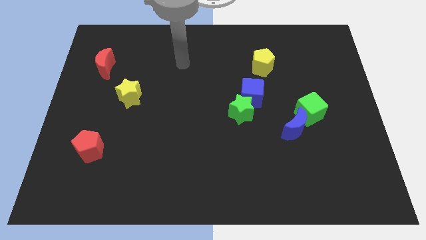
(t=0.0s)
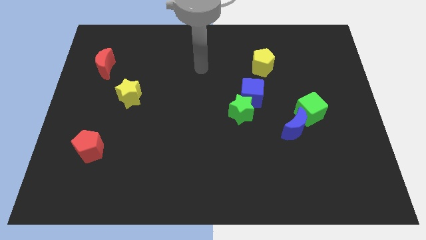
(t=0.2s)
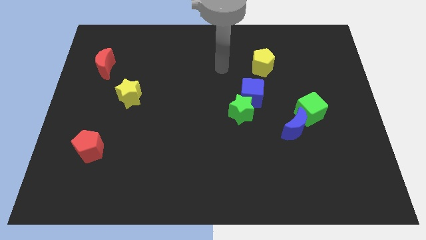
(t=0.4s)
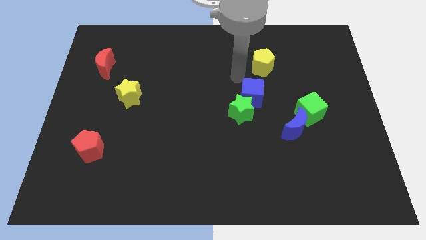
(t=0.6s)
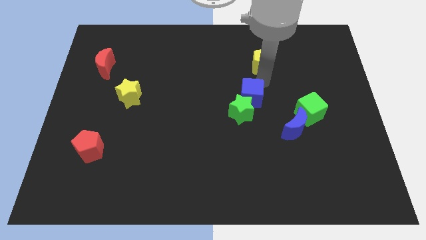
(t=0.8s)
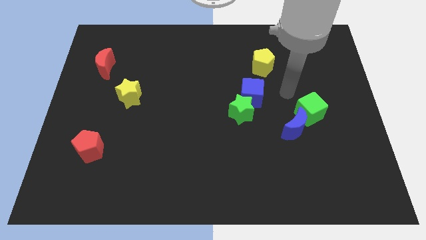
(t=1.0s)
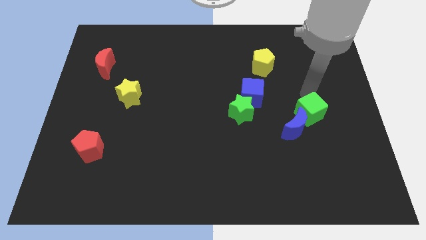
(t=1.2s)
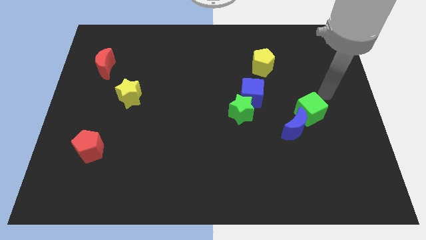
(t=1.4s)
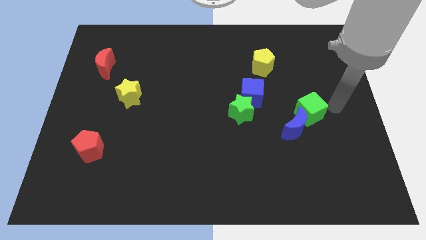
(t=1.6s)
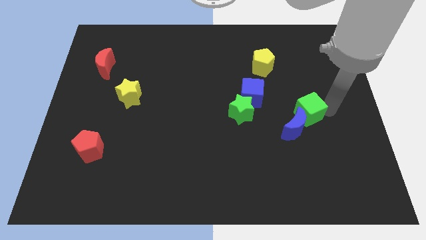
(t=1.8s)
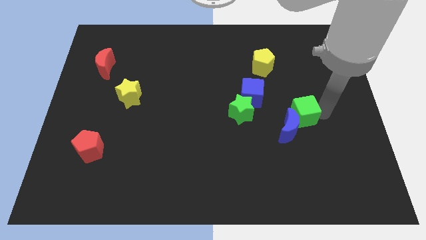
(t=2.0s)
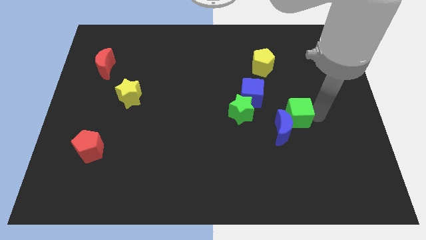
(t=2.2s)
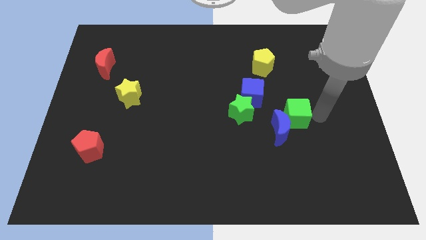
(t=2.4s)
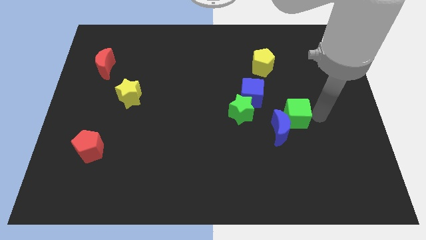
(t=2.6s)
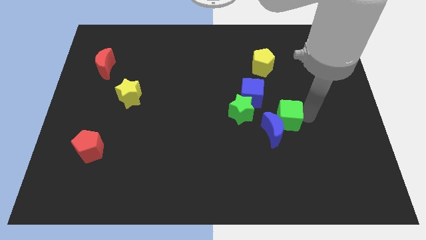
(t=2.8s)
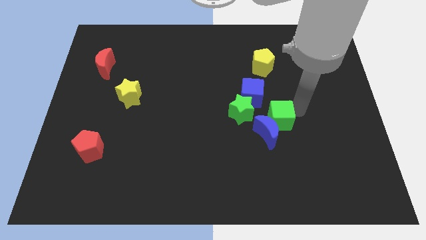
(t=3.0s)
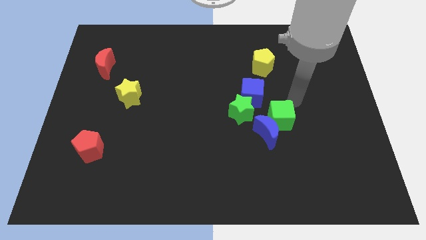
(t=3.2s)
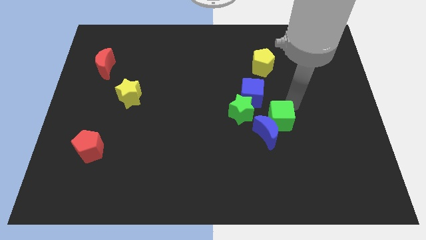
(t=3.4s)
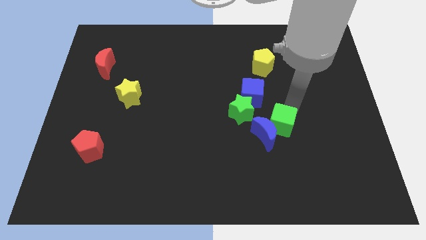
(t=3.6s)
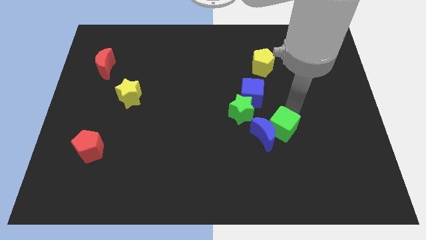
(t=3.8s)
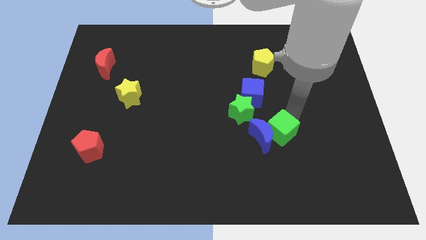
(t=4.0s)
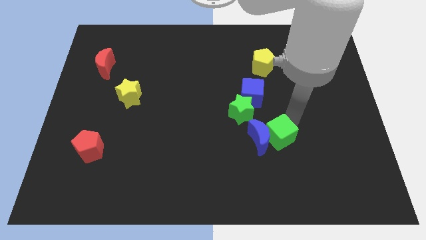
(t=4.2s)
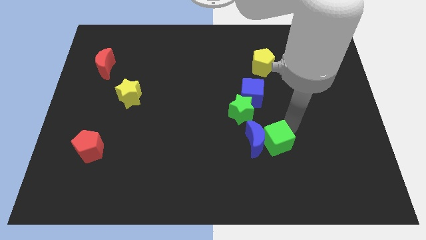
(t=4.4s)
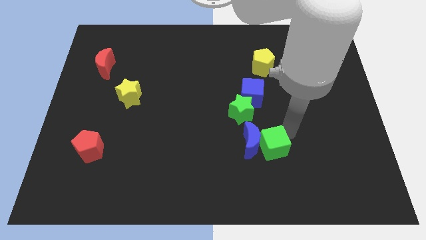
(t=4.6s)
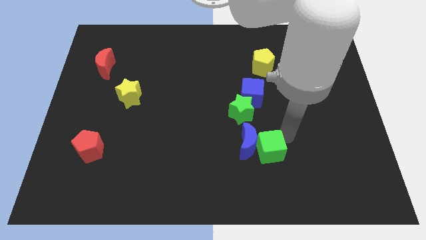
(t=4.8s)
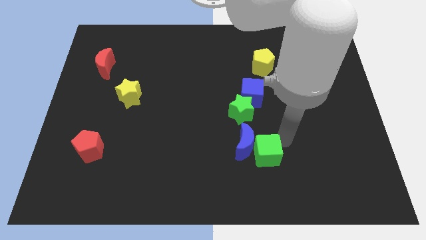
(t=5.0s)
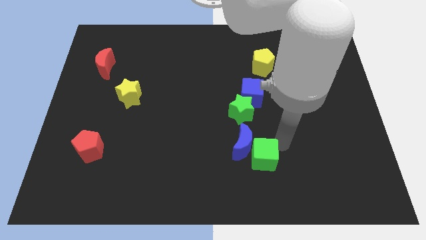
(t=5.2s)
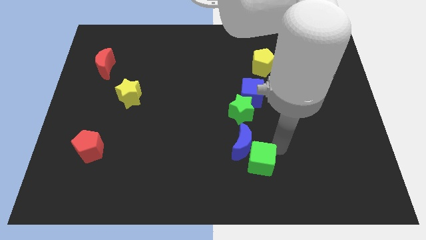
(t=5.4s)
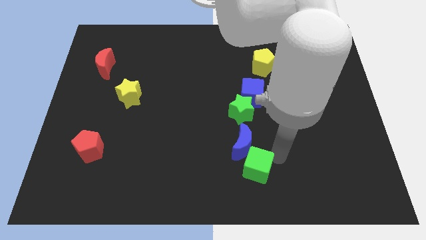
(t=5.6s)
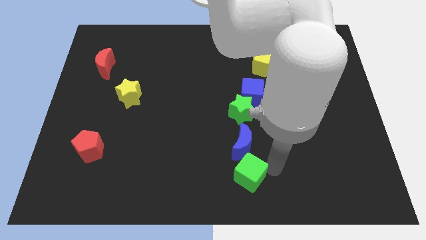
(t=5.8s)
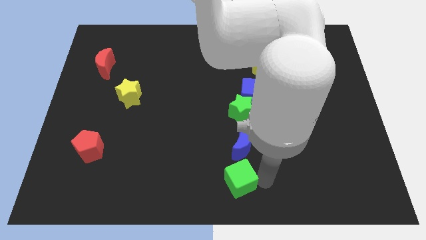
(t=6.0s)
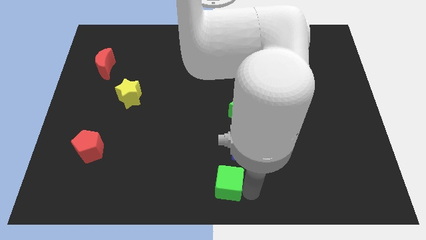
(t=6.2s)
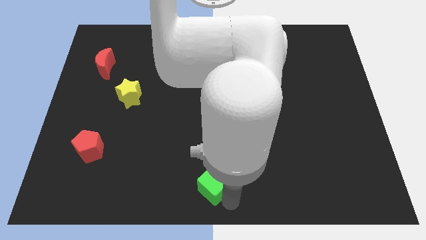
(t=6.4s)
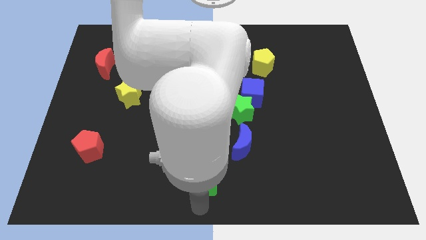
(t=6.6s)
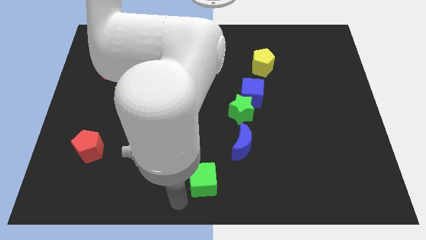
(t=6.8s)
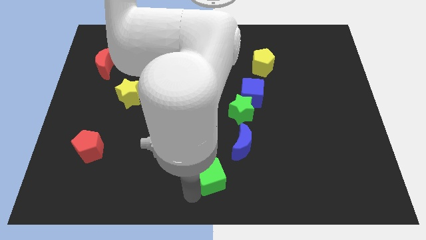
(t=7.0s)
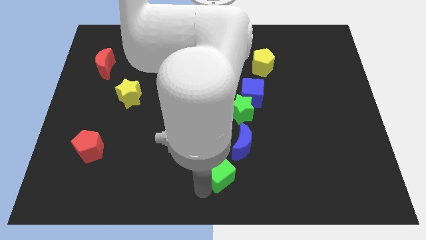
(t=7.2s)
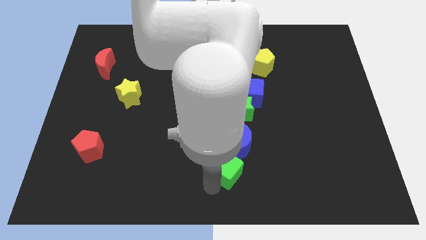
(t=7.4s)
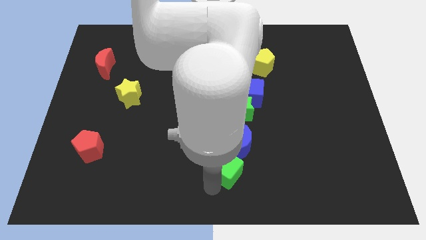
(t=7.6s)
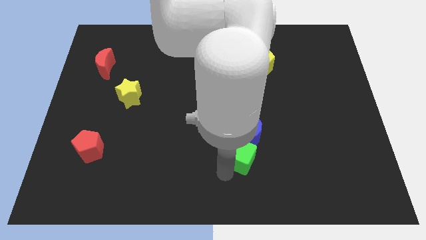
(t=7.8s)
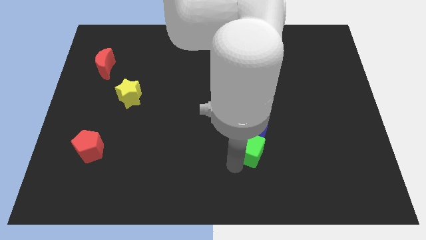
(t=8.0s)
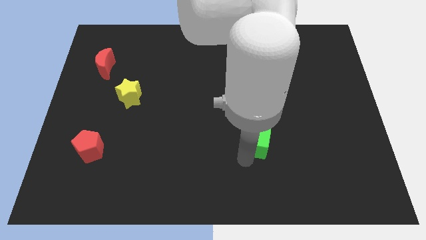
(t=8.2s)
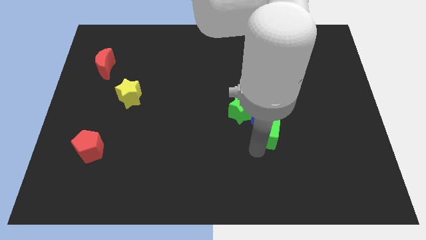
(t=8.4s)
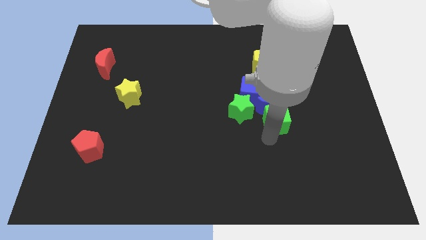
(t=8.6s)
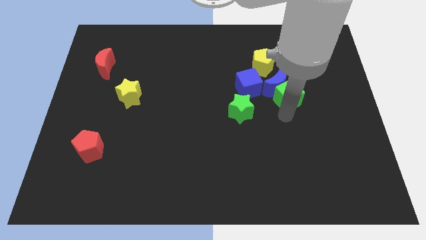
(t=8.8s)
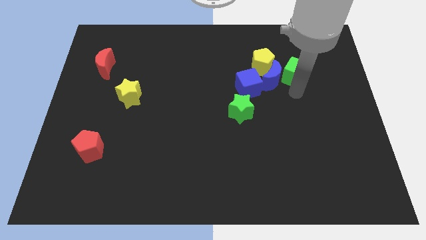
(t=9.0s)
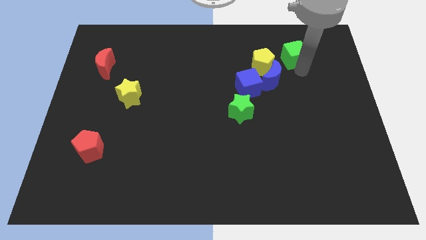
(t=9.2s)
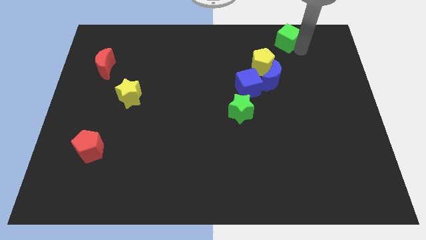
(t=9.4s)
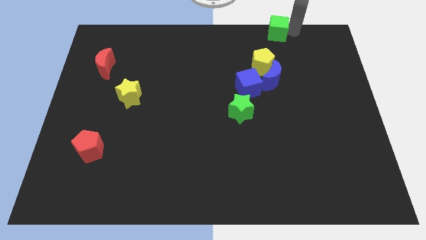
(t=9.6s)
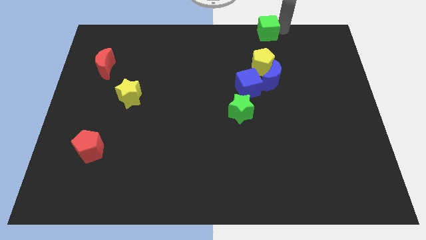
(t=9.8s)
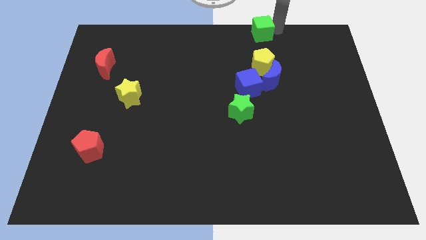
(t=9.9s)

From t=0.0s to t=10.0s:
slide the green cube to the towards your base

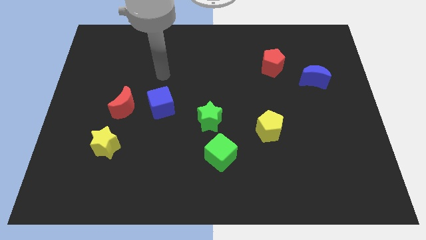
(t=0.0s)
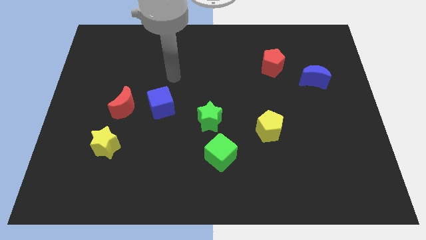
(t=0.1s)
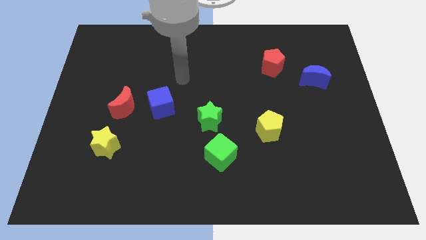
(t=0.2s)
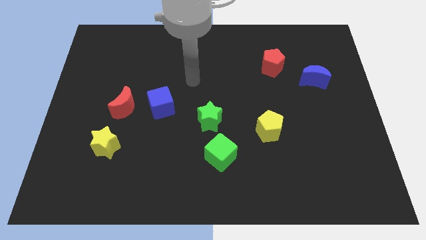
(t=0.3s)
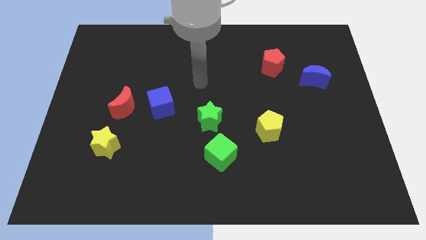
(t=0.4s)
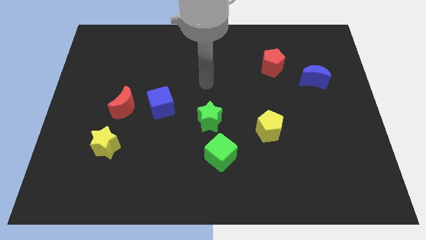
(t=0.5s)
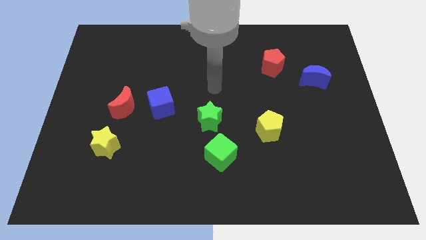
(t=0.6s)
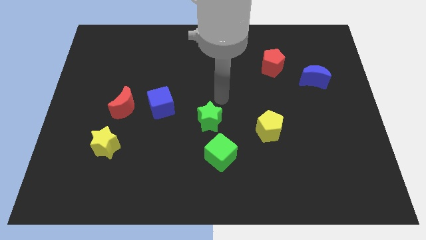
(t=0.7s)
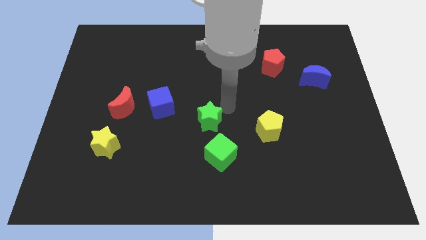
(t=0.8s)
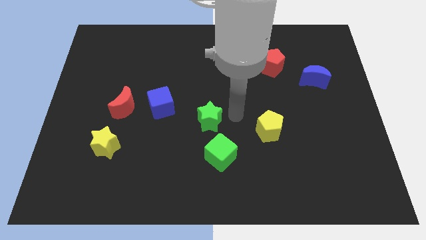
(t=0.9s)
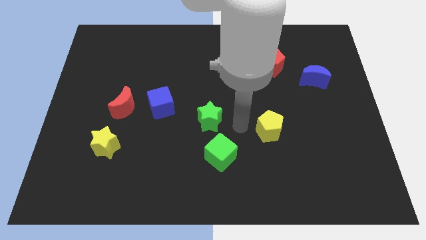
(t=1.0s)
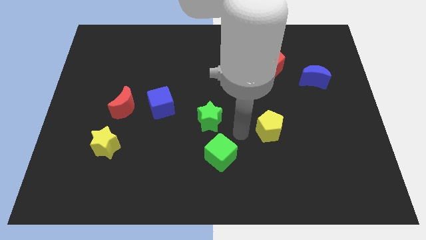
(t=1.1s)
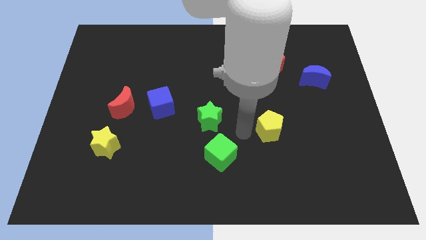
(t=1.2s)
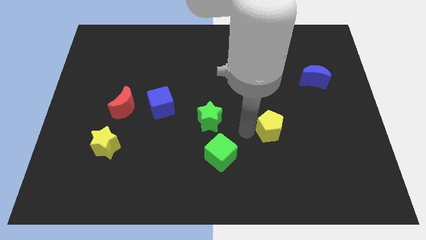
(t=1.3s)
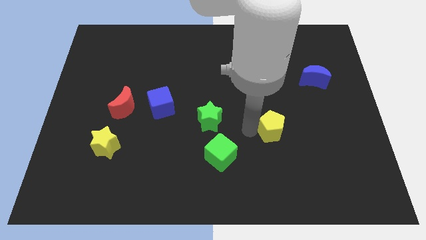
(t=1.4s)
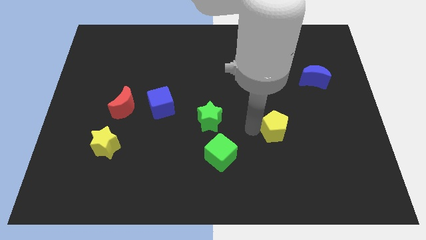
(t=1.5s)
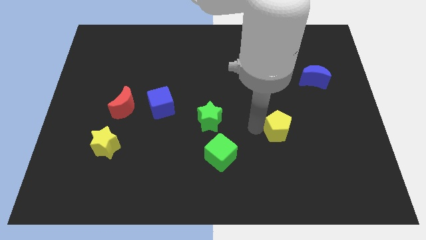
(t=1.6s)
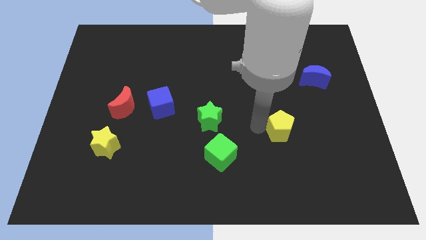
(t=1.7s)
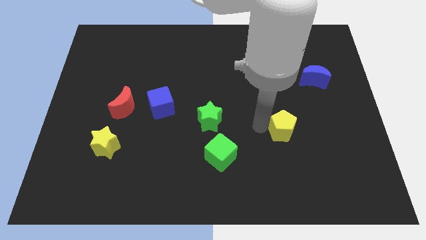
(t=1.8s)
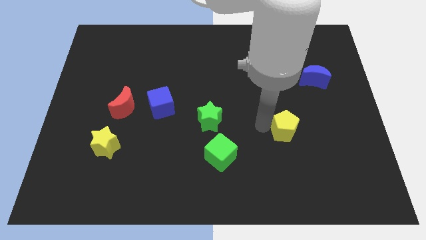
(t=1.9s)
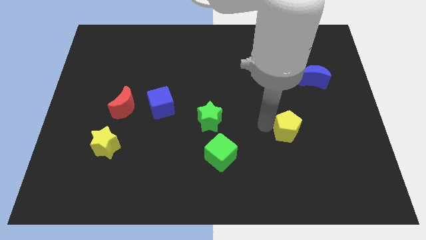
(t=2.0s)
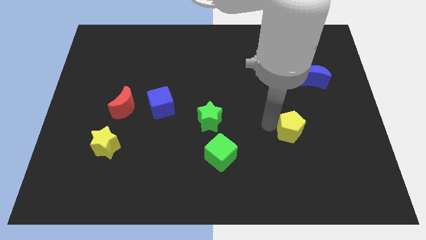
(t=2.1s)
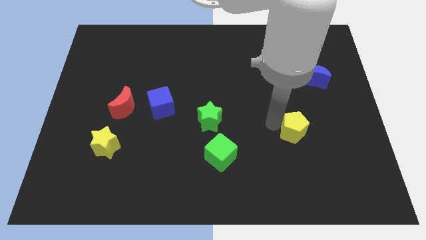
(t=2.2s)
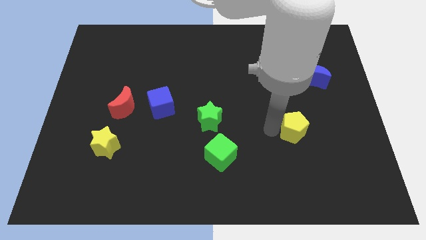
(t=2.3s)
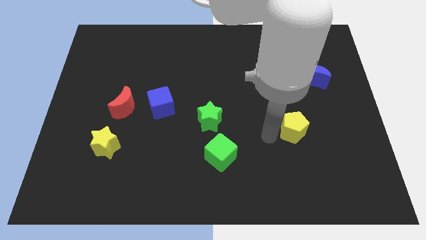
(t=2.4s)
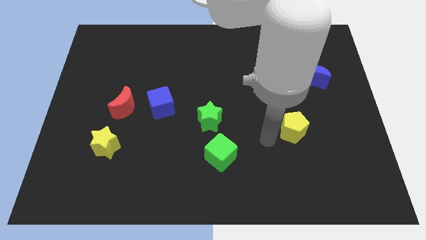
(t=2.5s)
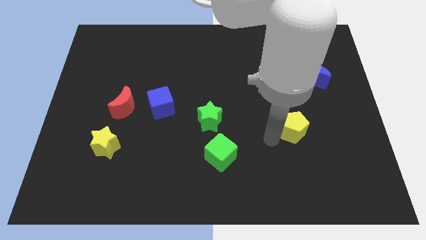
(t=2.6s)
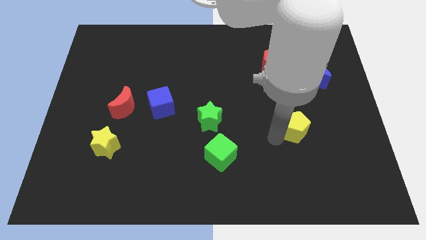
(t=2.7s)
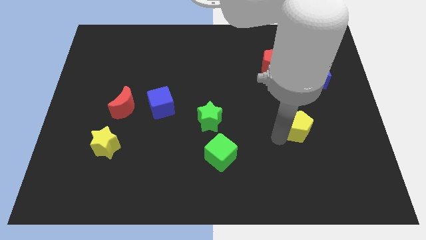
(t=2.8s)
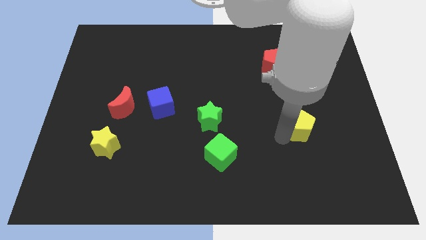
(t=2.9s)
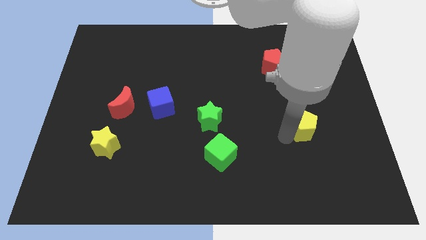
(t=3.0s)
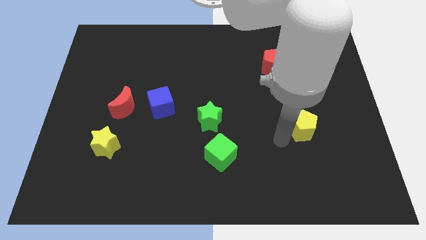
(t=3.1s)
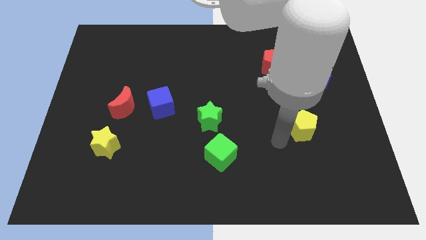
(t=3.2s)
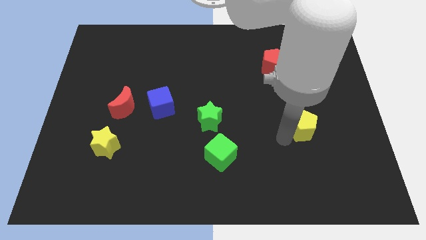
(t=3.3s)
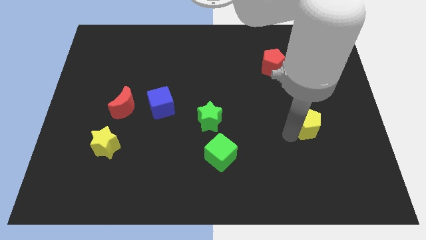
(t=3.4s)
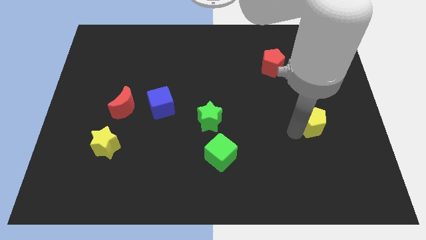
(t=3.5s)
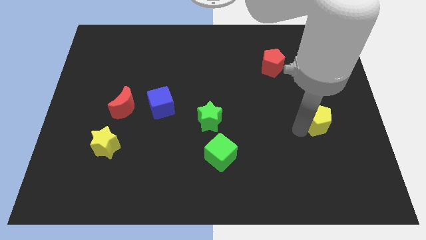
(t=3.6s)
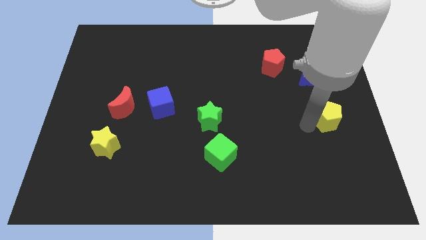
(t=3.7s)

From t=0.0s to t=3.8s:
push the yellow pentagon to the right side of the board
